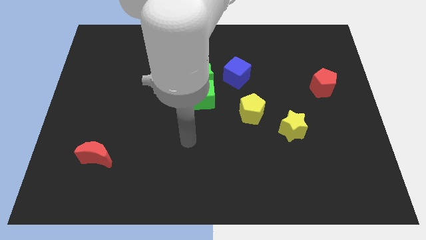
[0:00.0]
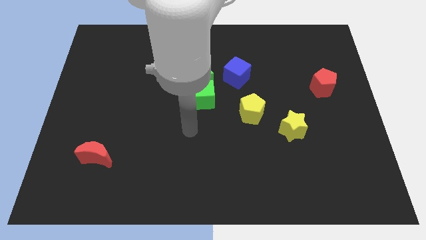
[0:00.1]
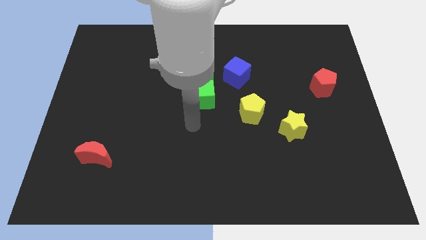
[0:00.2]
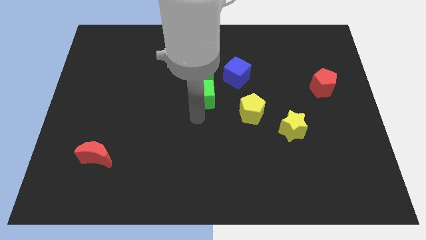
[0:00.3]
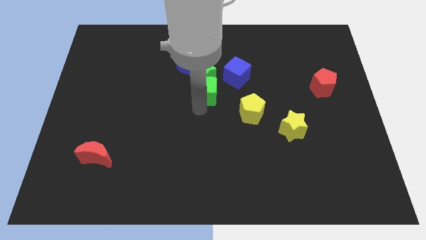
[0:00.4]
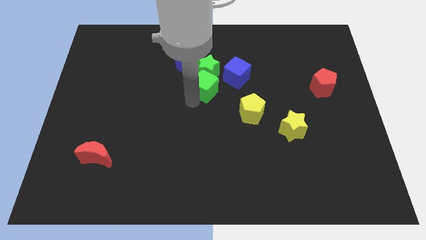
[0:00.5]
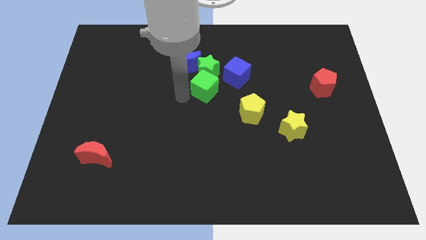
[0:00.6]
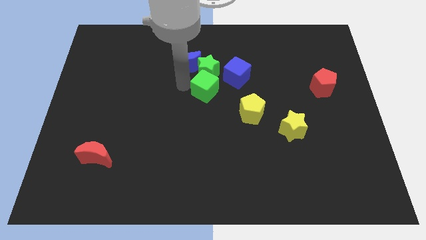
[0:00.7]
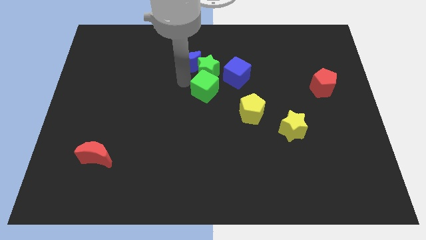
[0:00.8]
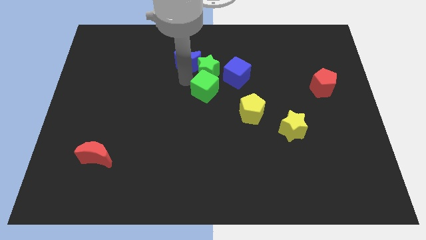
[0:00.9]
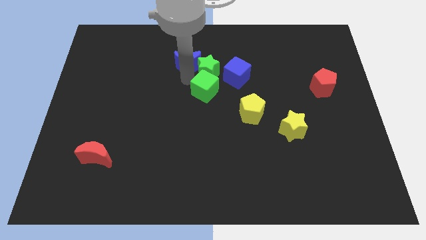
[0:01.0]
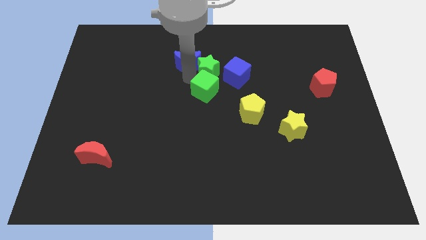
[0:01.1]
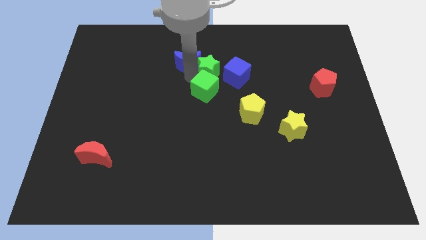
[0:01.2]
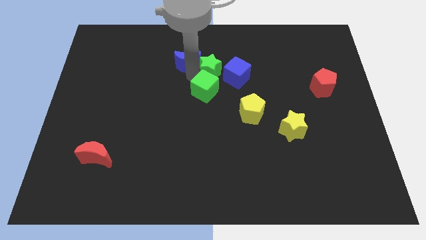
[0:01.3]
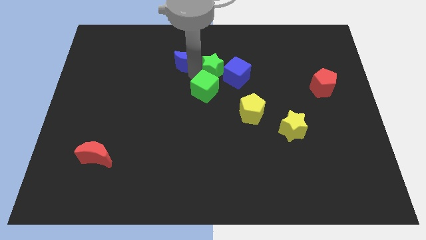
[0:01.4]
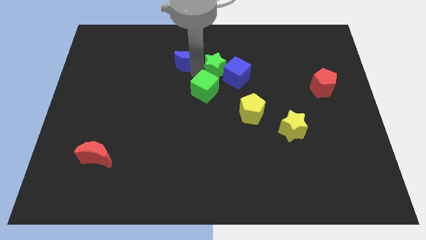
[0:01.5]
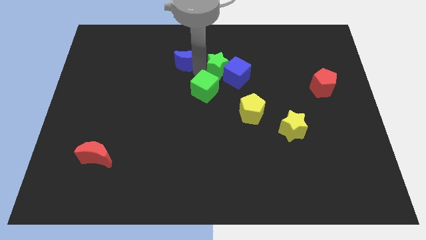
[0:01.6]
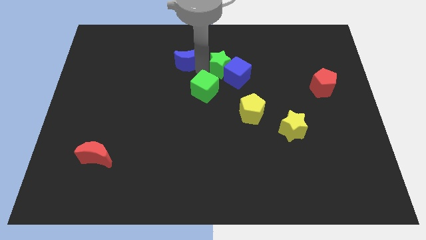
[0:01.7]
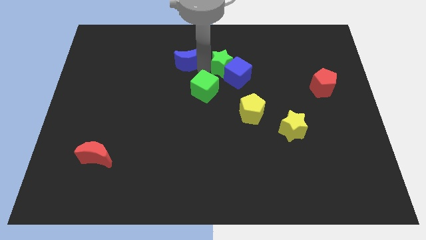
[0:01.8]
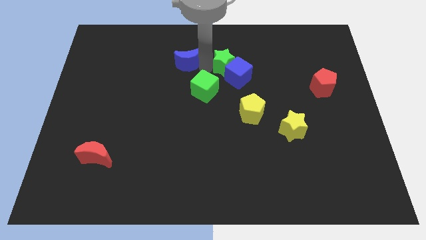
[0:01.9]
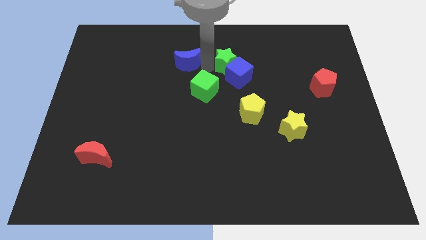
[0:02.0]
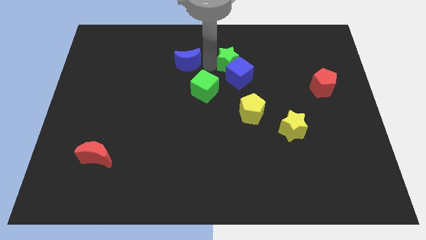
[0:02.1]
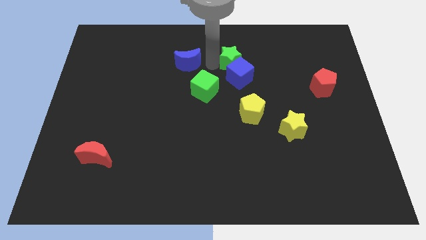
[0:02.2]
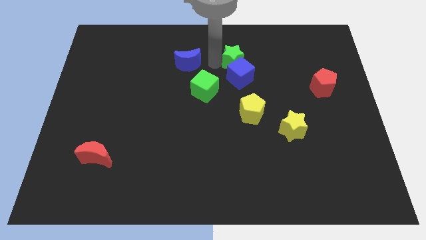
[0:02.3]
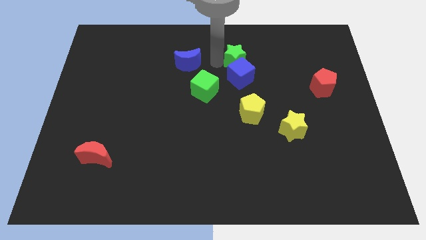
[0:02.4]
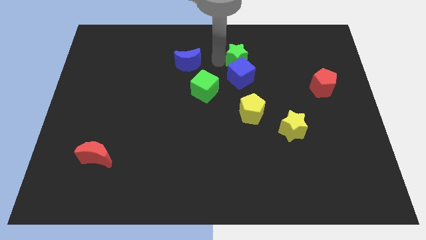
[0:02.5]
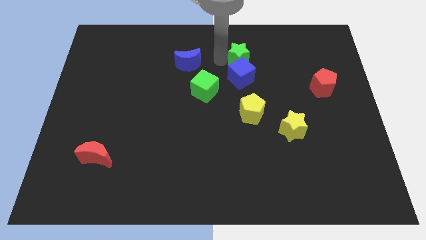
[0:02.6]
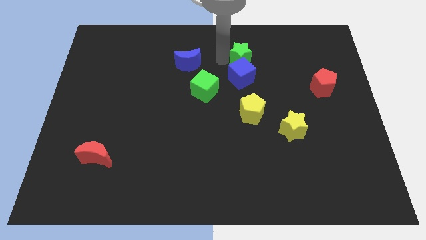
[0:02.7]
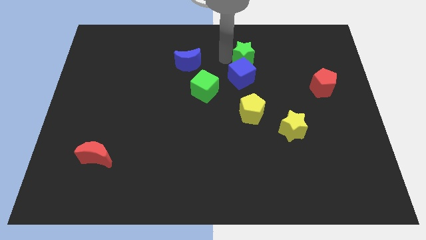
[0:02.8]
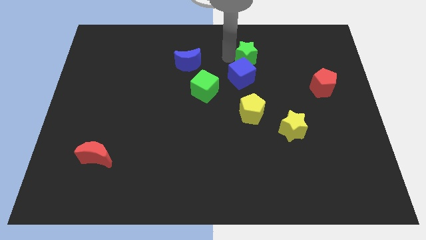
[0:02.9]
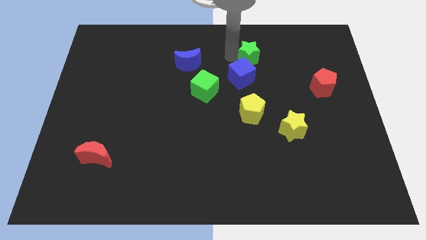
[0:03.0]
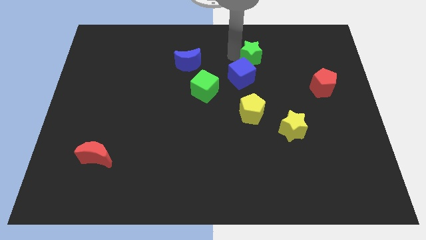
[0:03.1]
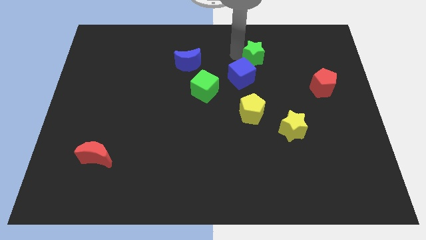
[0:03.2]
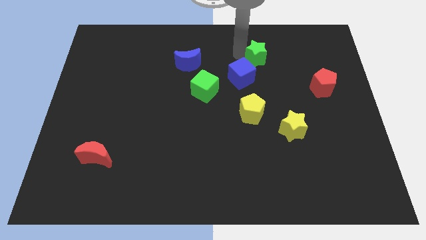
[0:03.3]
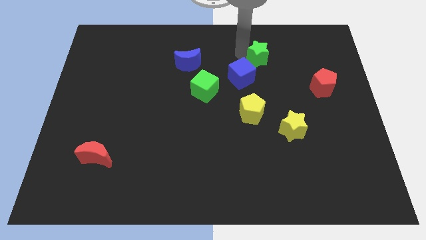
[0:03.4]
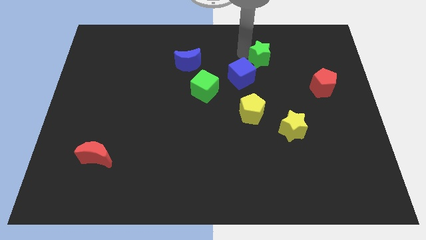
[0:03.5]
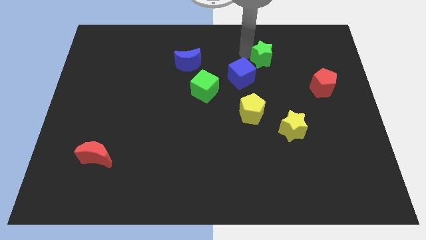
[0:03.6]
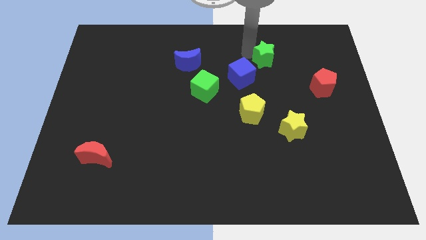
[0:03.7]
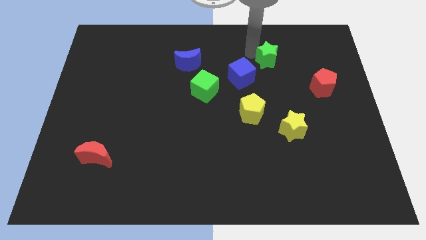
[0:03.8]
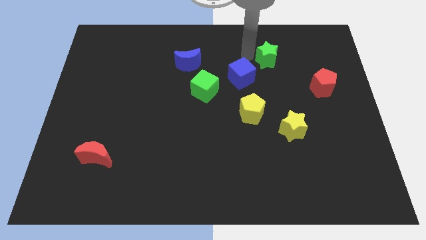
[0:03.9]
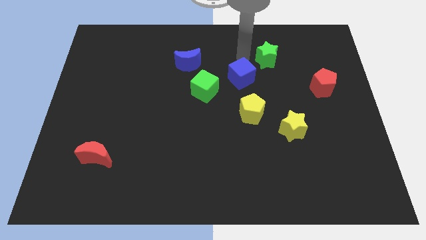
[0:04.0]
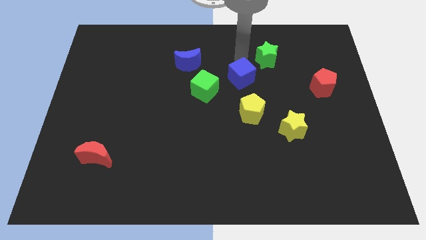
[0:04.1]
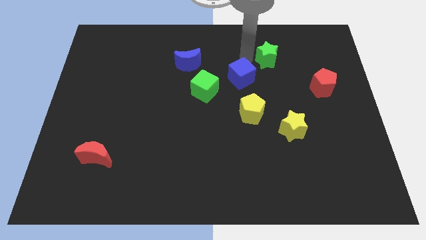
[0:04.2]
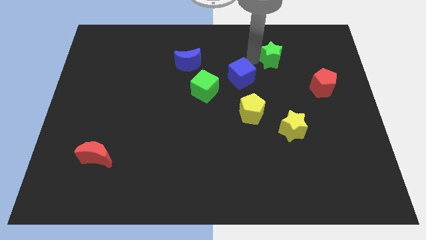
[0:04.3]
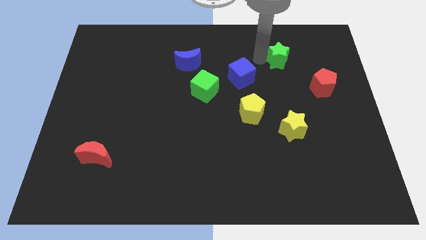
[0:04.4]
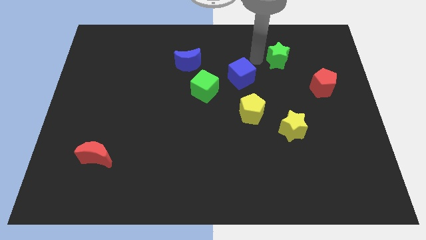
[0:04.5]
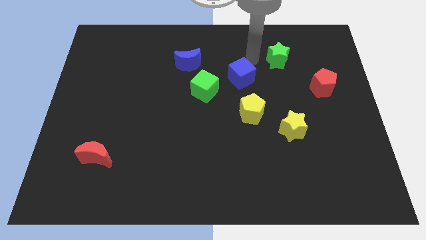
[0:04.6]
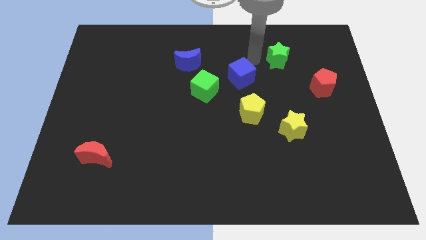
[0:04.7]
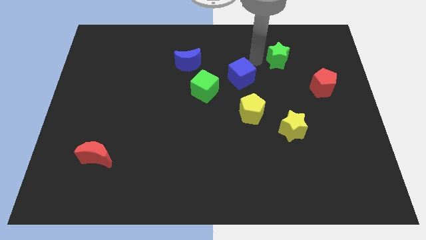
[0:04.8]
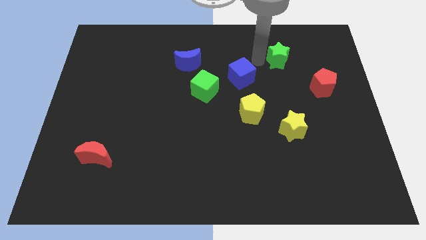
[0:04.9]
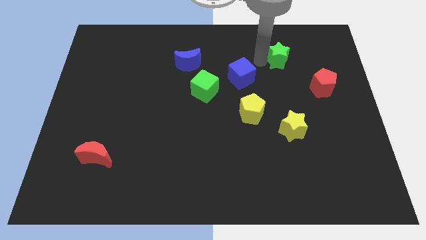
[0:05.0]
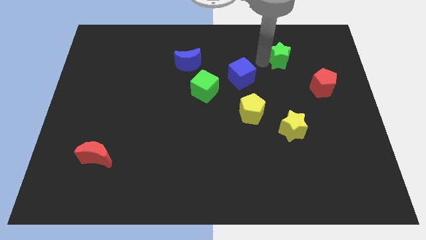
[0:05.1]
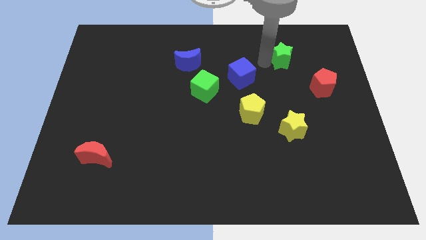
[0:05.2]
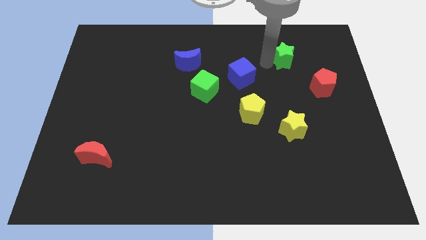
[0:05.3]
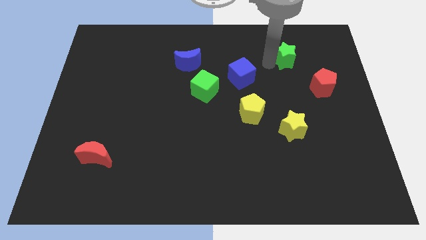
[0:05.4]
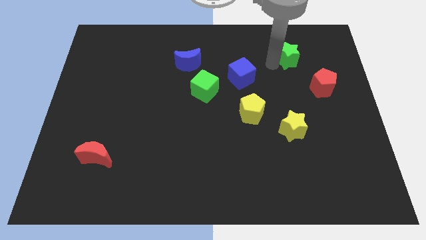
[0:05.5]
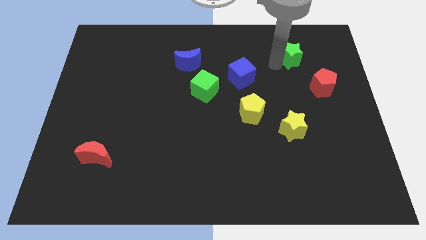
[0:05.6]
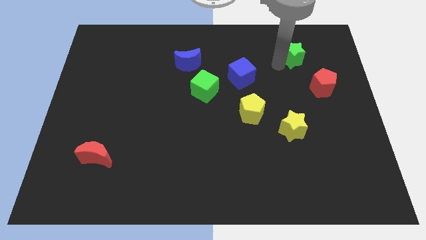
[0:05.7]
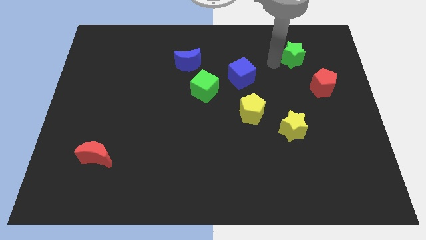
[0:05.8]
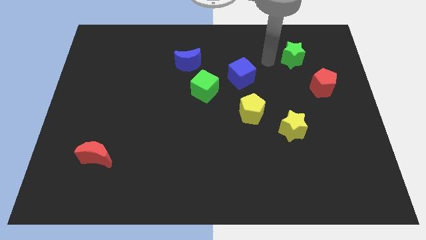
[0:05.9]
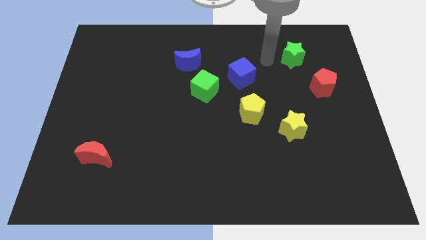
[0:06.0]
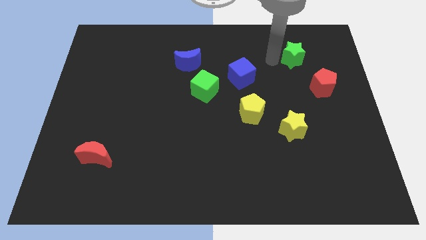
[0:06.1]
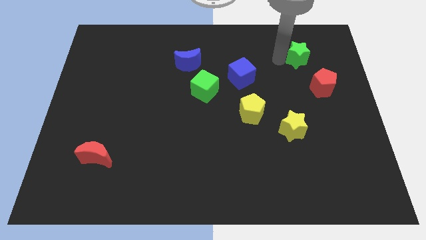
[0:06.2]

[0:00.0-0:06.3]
push the green star to the top of the red pentagon

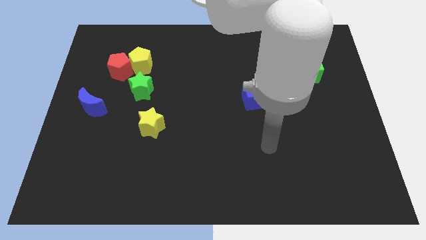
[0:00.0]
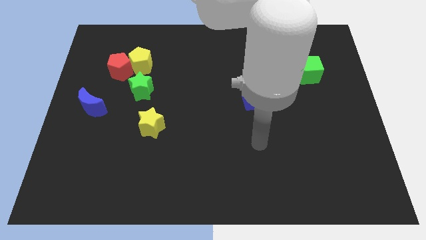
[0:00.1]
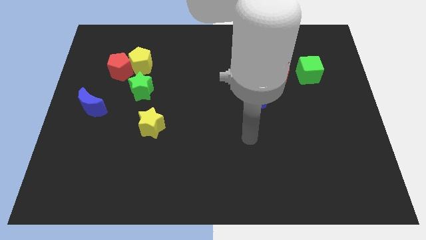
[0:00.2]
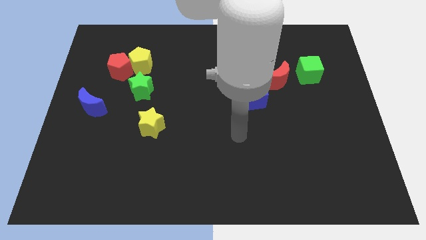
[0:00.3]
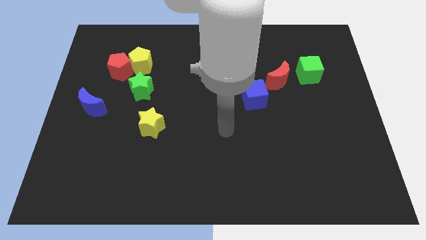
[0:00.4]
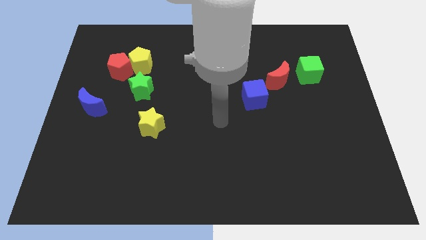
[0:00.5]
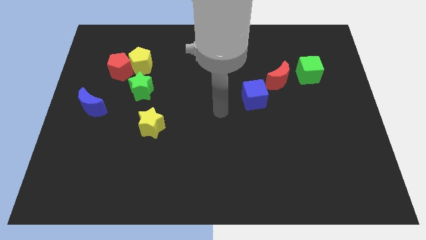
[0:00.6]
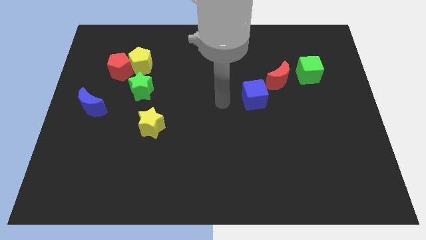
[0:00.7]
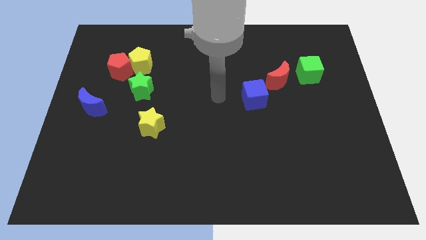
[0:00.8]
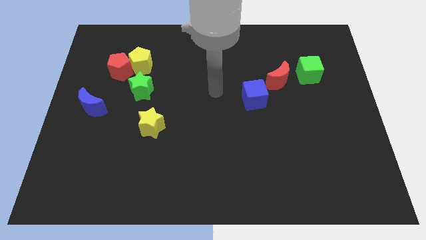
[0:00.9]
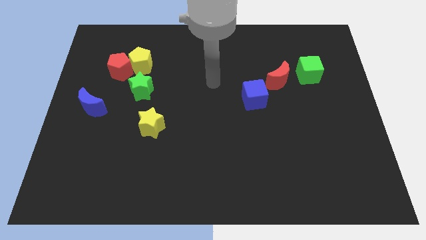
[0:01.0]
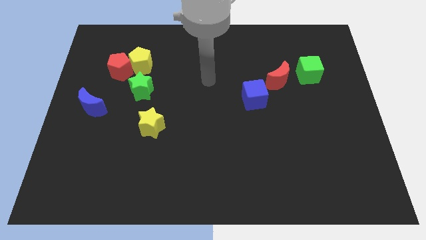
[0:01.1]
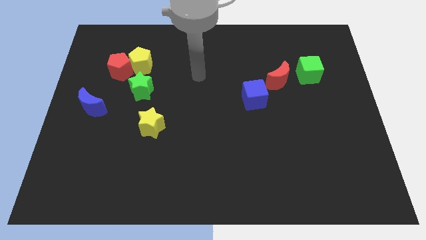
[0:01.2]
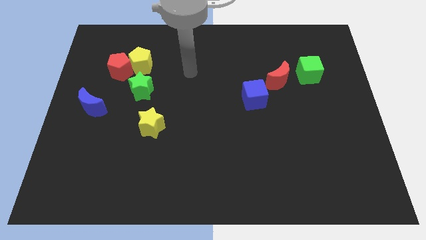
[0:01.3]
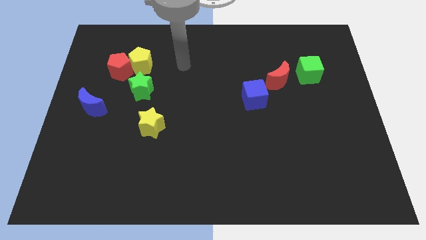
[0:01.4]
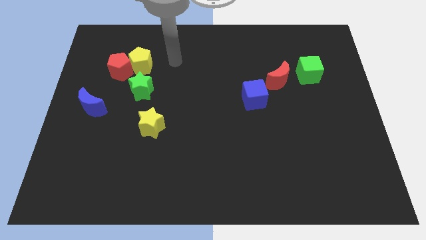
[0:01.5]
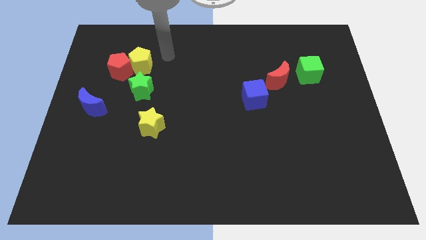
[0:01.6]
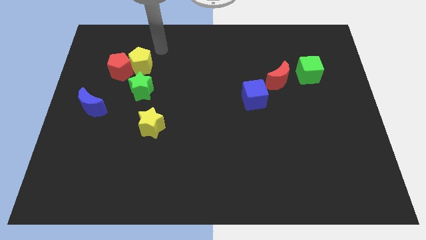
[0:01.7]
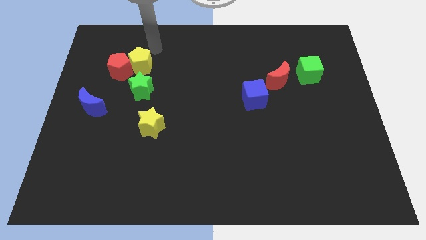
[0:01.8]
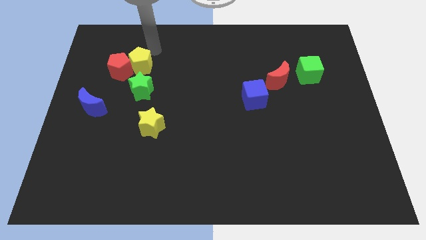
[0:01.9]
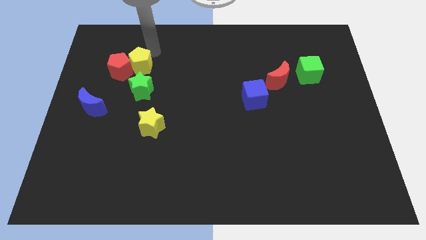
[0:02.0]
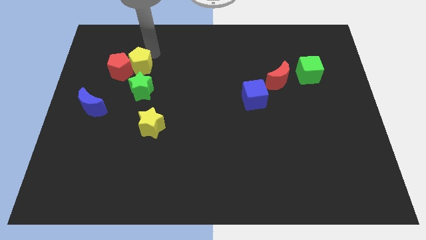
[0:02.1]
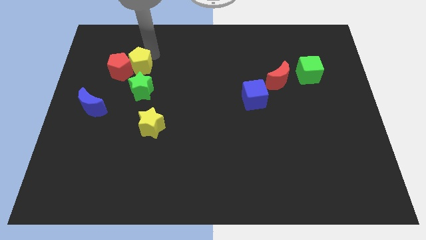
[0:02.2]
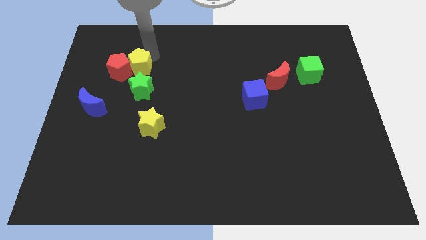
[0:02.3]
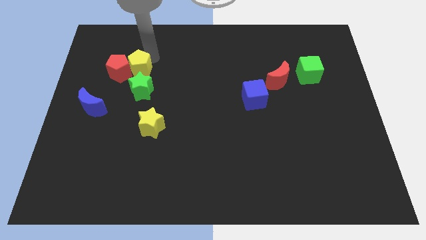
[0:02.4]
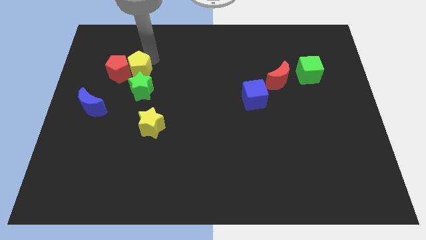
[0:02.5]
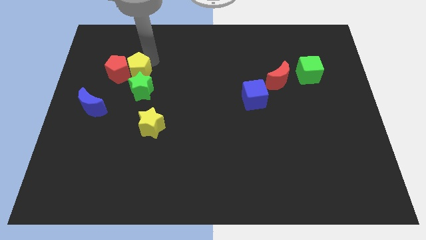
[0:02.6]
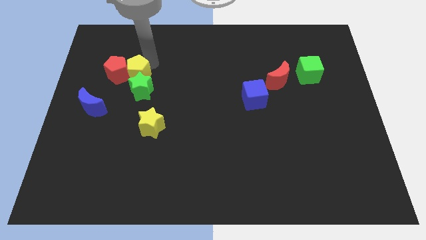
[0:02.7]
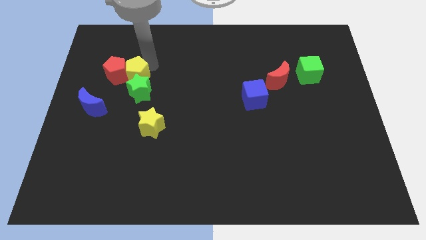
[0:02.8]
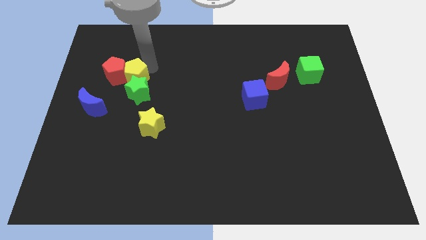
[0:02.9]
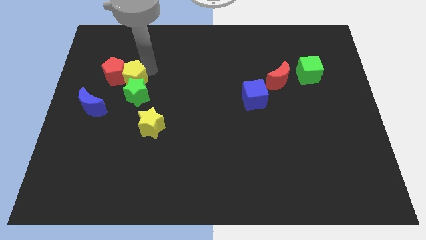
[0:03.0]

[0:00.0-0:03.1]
push the yellow pentagon to the top right side of the blue moon
